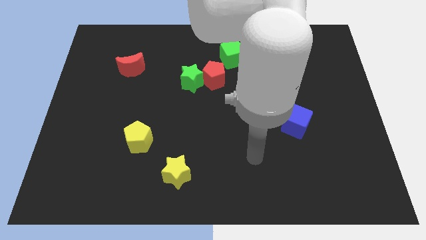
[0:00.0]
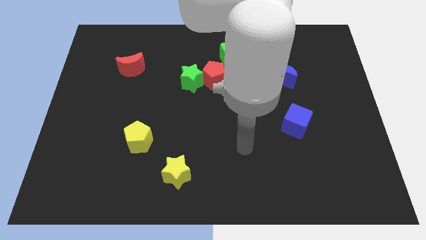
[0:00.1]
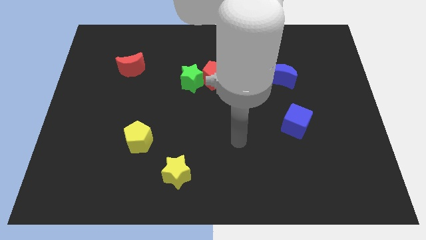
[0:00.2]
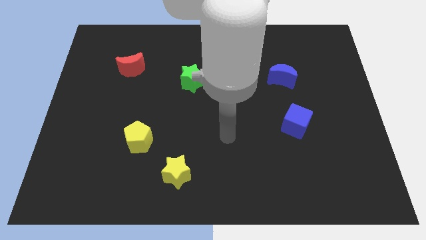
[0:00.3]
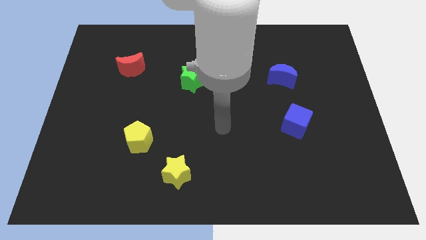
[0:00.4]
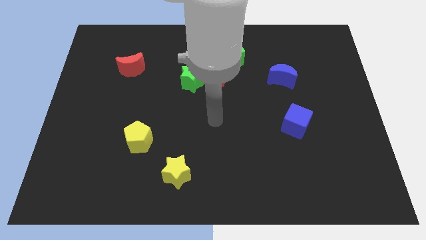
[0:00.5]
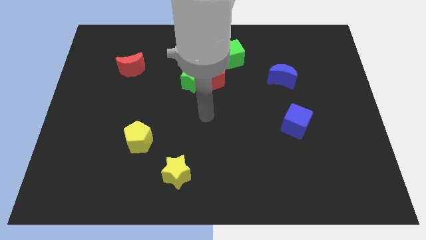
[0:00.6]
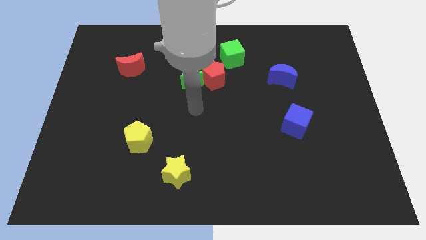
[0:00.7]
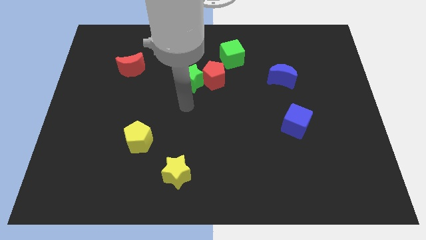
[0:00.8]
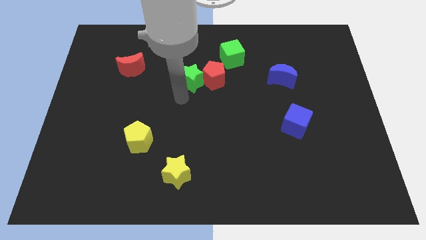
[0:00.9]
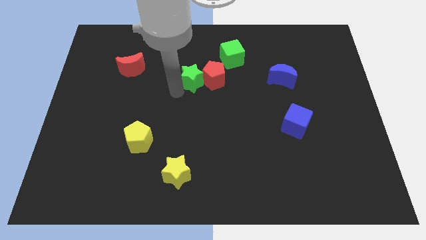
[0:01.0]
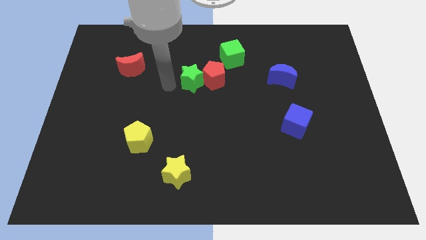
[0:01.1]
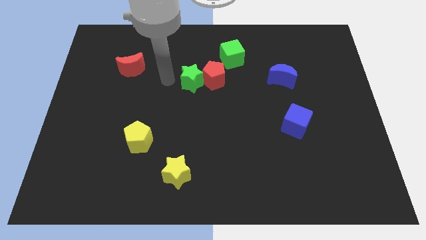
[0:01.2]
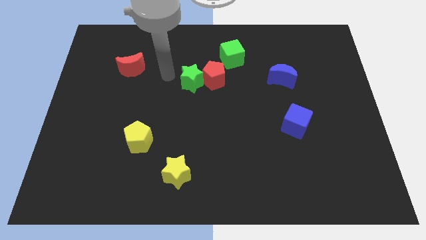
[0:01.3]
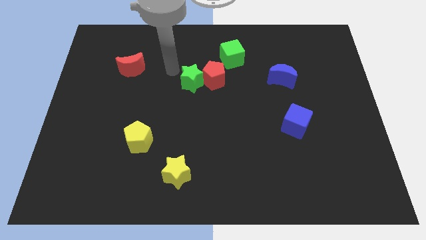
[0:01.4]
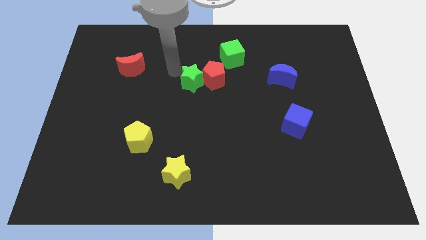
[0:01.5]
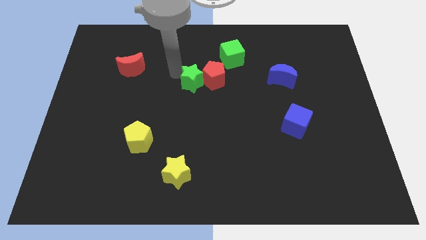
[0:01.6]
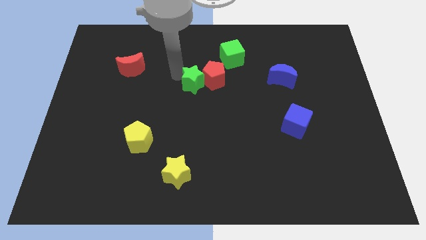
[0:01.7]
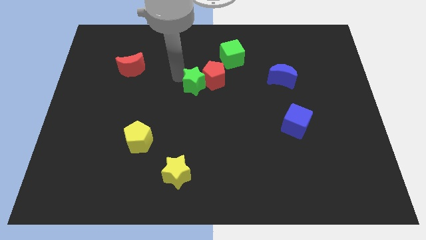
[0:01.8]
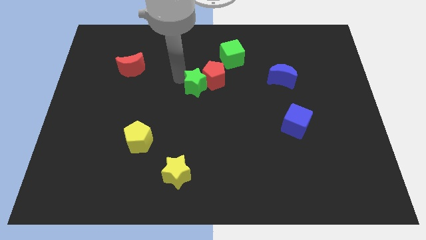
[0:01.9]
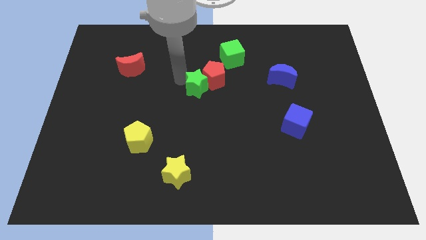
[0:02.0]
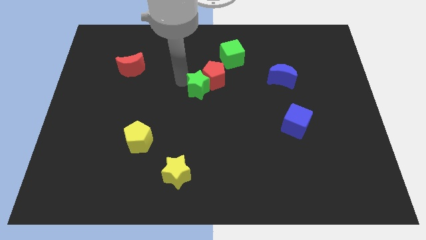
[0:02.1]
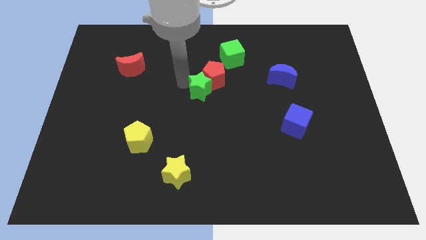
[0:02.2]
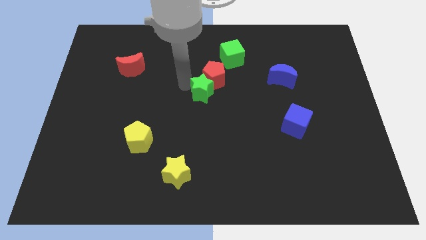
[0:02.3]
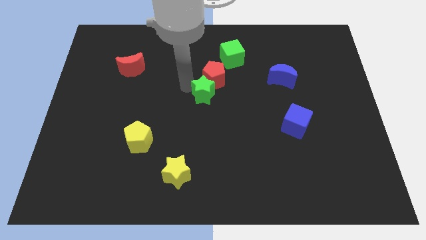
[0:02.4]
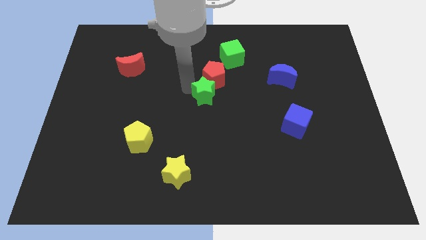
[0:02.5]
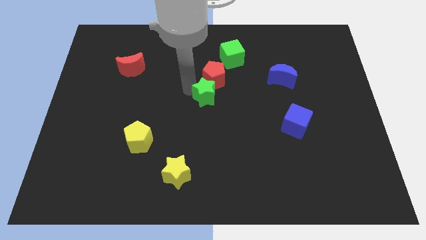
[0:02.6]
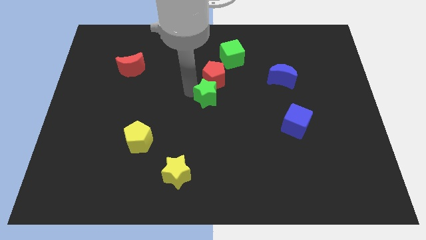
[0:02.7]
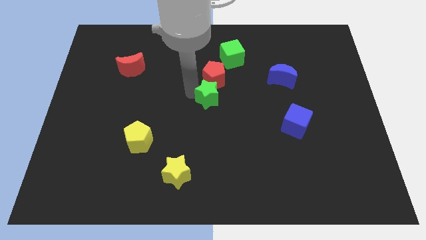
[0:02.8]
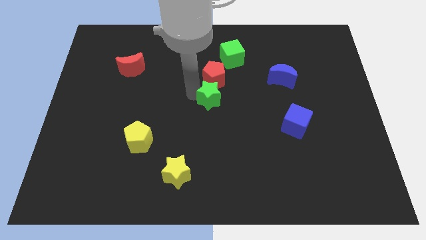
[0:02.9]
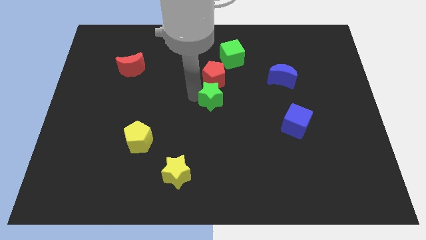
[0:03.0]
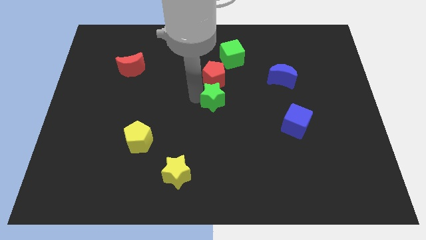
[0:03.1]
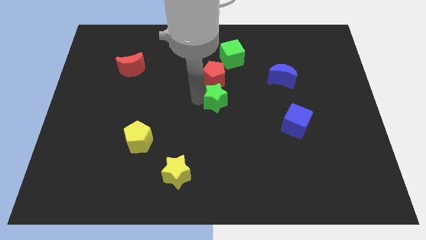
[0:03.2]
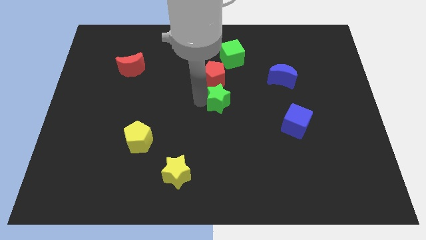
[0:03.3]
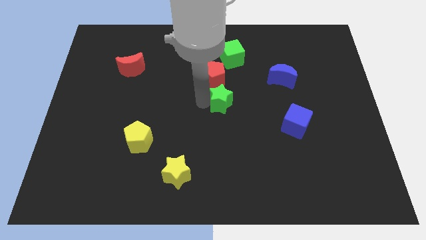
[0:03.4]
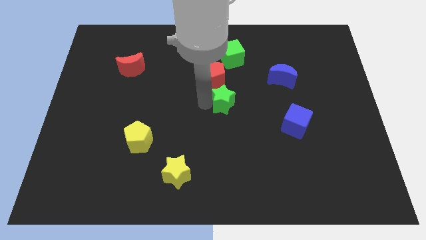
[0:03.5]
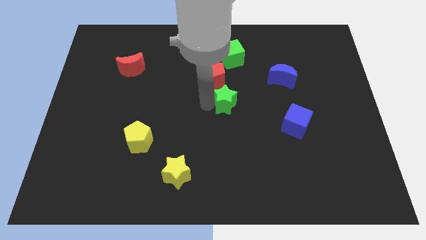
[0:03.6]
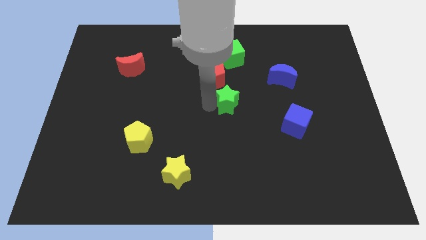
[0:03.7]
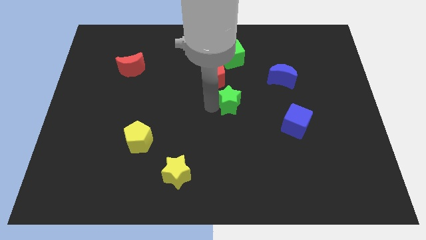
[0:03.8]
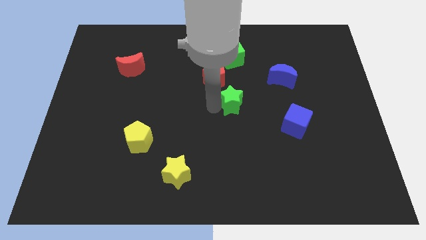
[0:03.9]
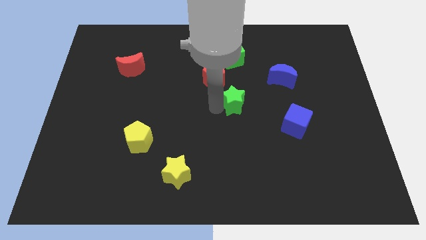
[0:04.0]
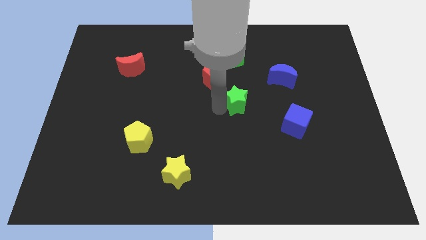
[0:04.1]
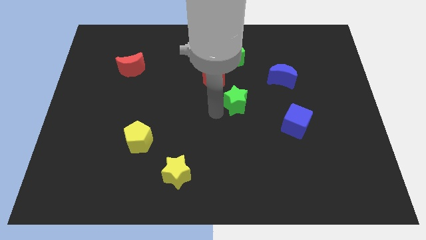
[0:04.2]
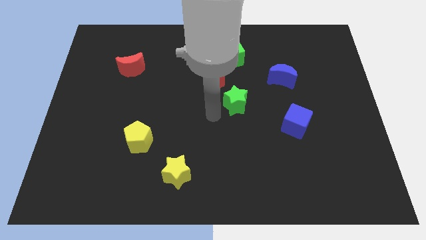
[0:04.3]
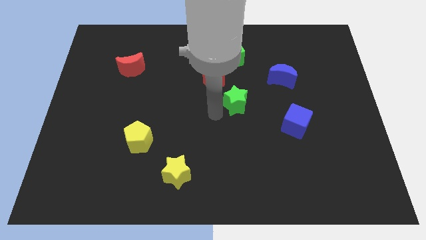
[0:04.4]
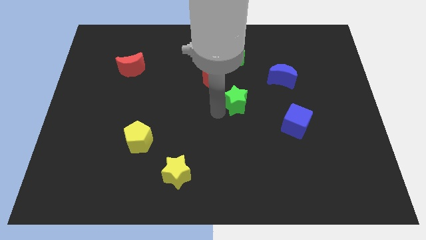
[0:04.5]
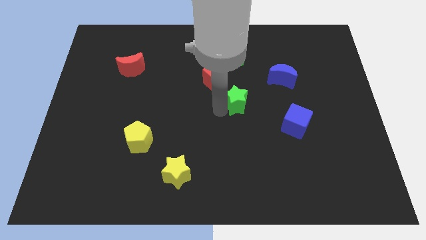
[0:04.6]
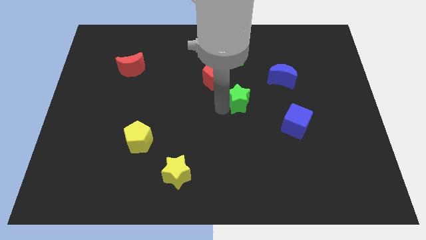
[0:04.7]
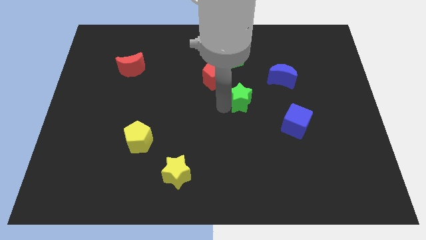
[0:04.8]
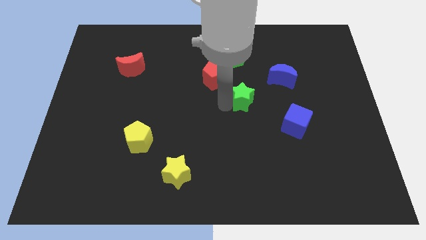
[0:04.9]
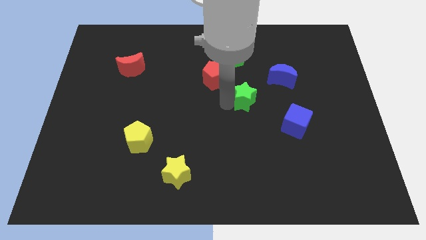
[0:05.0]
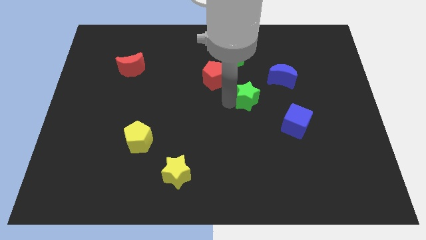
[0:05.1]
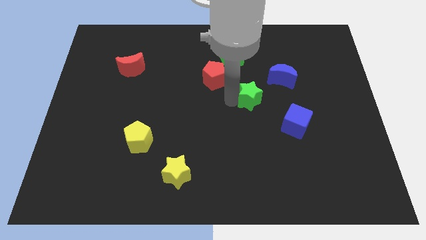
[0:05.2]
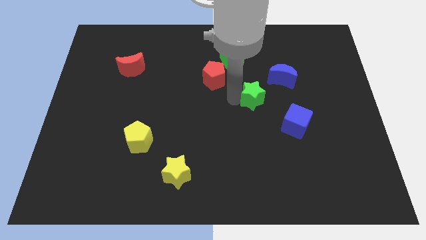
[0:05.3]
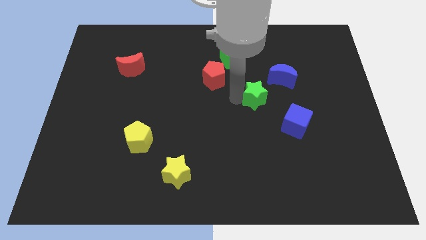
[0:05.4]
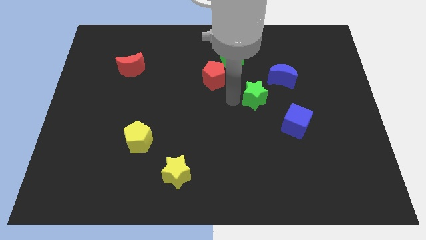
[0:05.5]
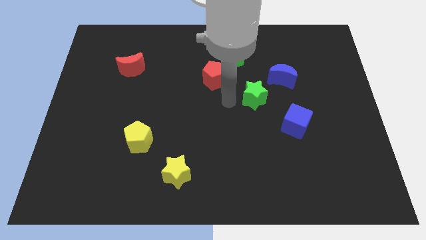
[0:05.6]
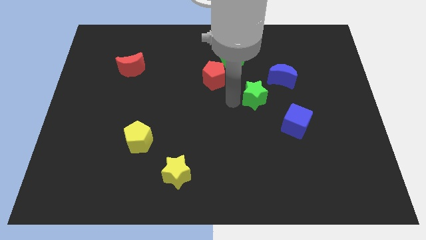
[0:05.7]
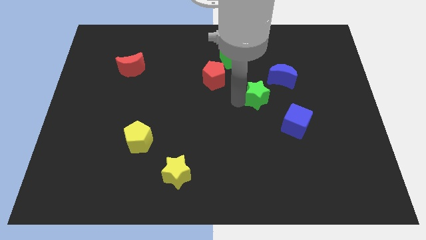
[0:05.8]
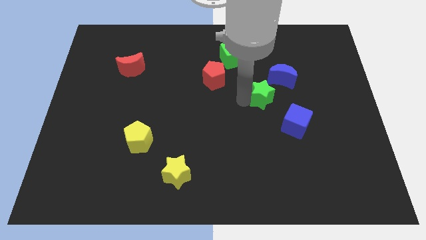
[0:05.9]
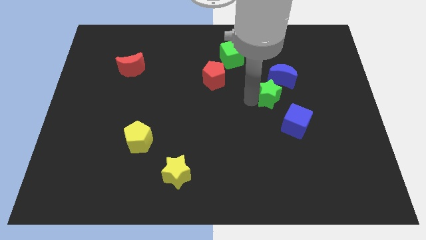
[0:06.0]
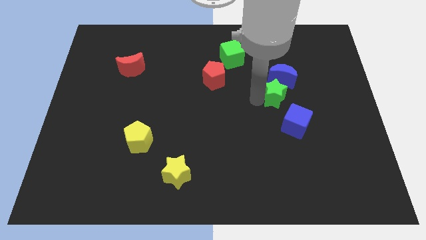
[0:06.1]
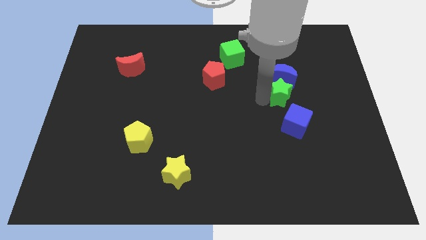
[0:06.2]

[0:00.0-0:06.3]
push the green star right

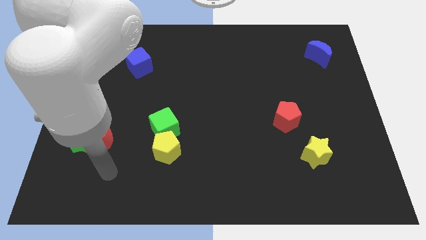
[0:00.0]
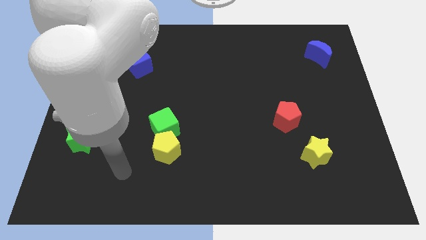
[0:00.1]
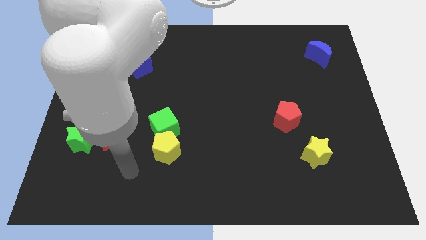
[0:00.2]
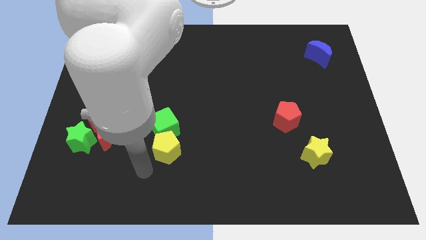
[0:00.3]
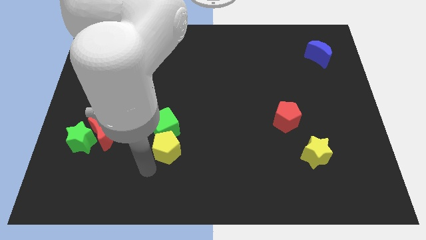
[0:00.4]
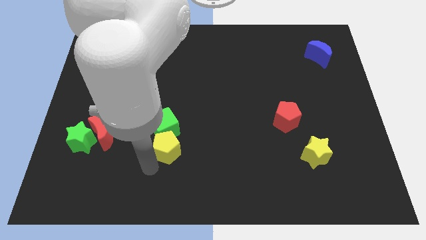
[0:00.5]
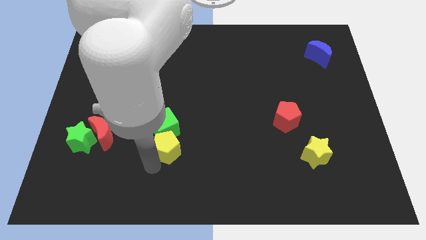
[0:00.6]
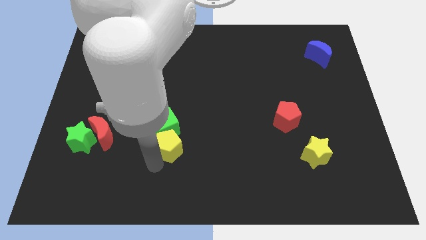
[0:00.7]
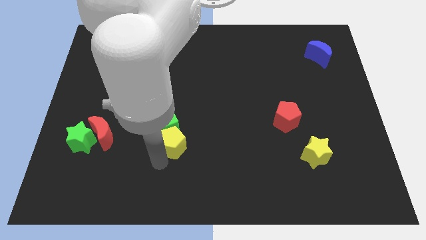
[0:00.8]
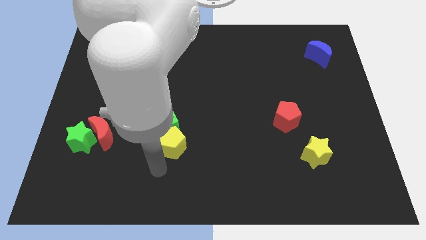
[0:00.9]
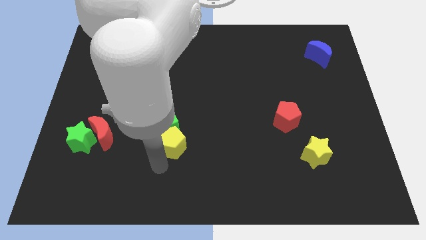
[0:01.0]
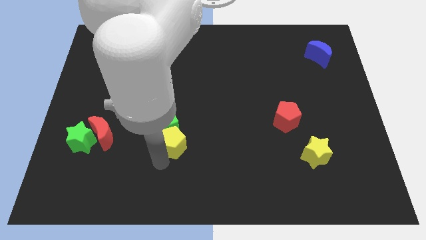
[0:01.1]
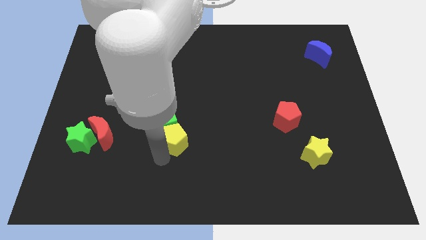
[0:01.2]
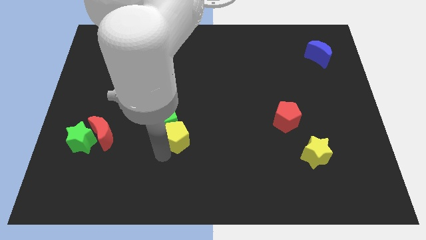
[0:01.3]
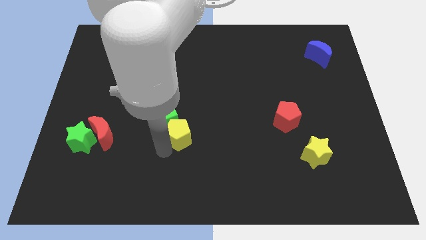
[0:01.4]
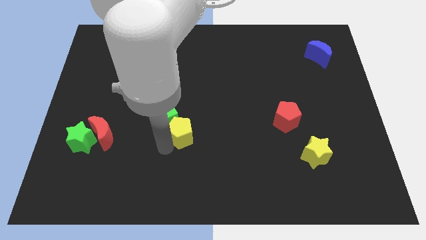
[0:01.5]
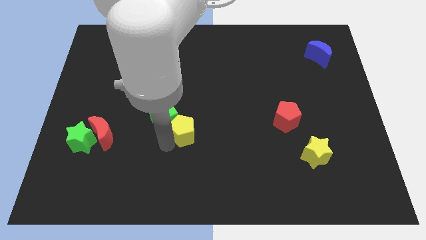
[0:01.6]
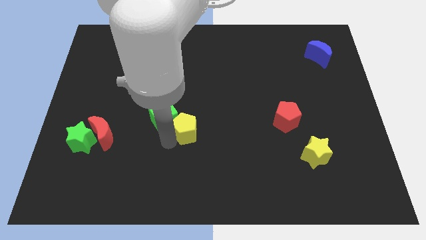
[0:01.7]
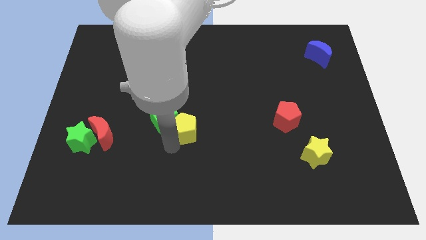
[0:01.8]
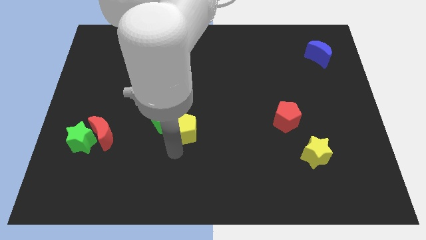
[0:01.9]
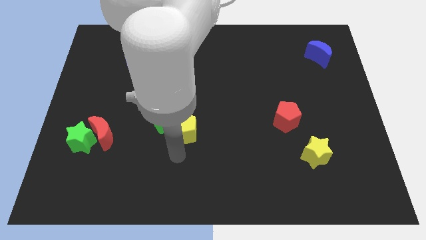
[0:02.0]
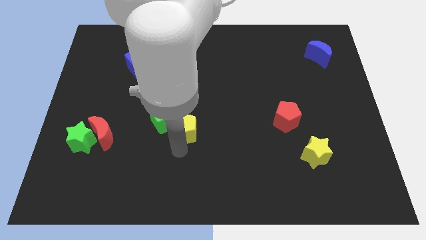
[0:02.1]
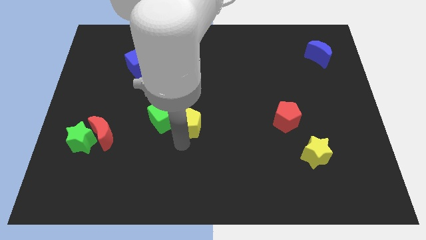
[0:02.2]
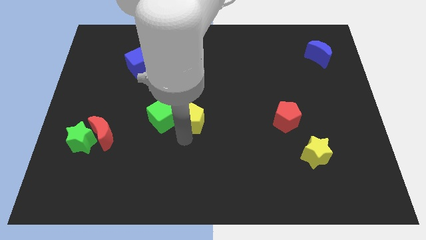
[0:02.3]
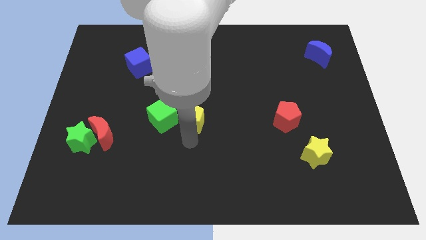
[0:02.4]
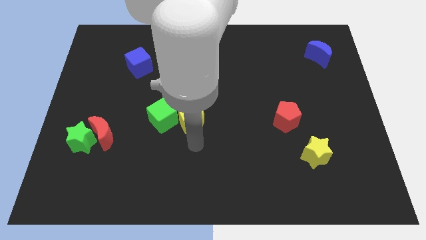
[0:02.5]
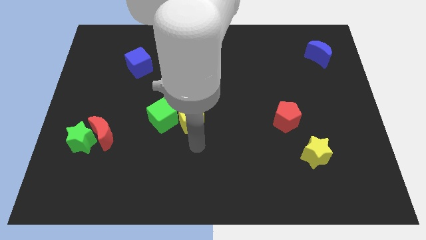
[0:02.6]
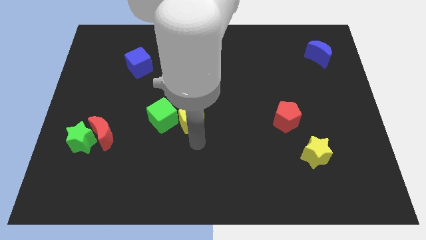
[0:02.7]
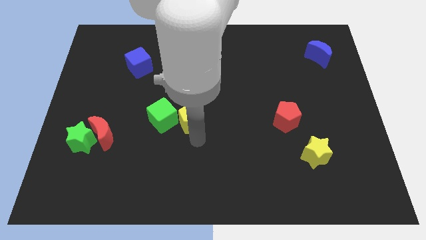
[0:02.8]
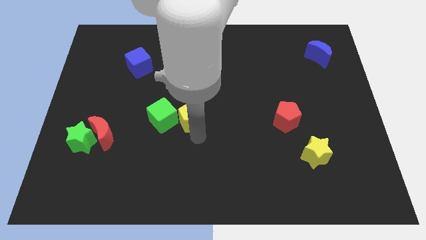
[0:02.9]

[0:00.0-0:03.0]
slide the yellow pentagon up a bit
